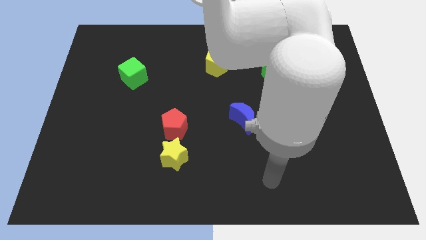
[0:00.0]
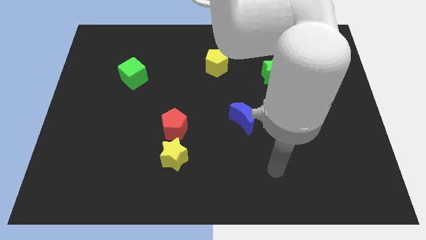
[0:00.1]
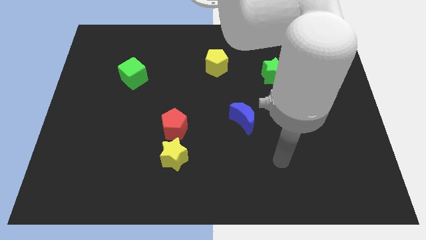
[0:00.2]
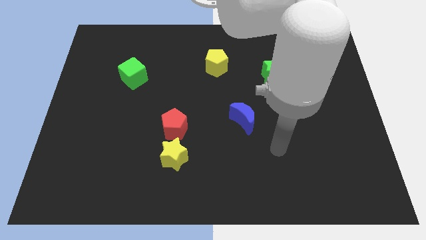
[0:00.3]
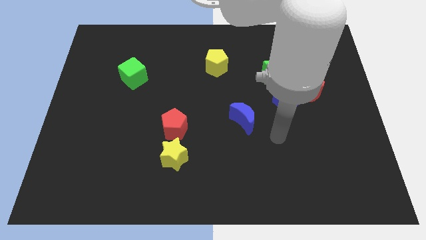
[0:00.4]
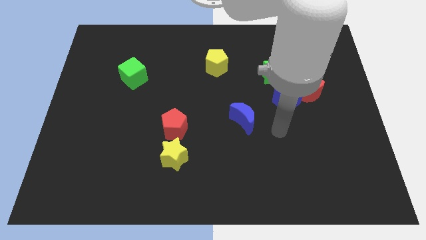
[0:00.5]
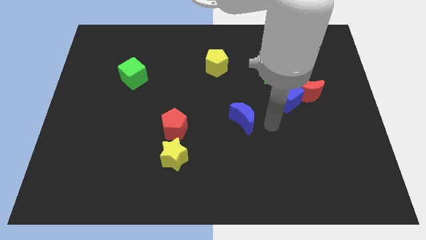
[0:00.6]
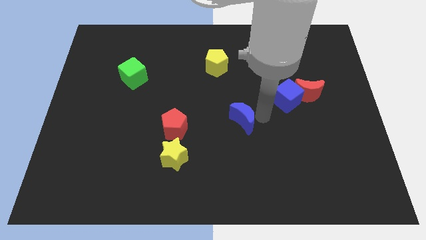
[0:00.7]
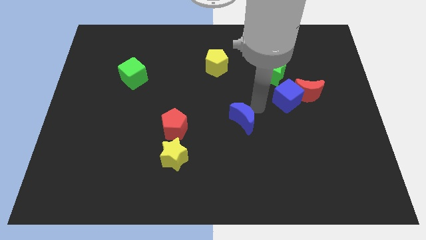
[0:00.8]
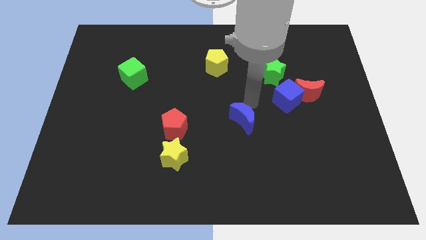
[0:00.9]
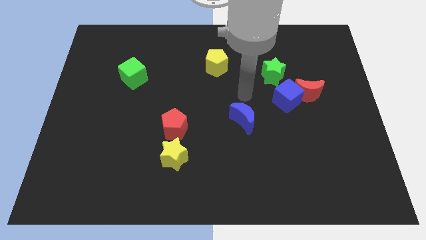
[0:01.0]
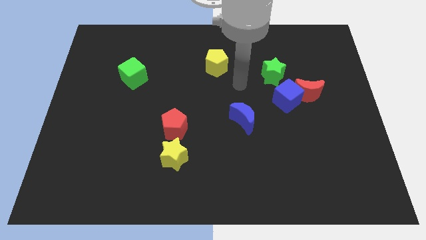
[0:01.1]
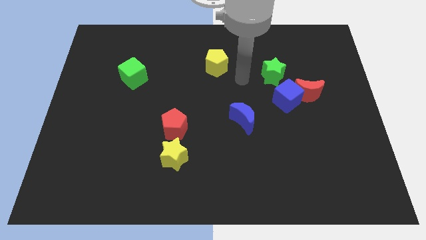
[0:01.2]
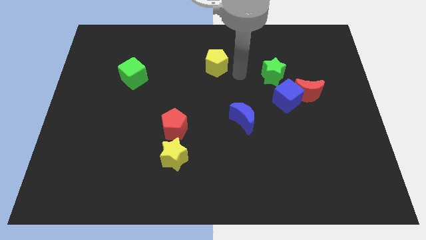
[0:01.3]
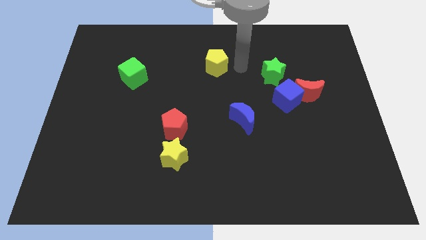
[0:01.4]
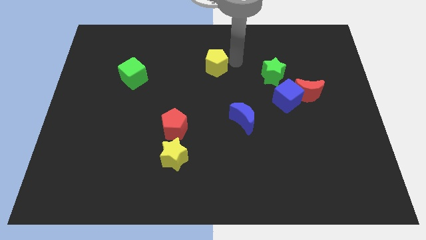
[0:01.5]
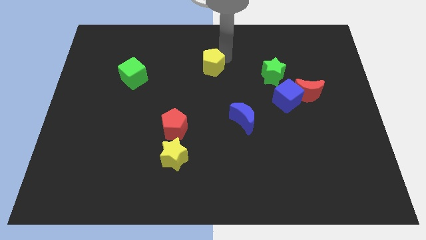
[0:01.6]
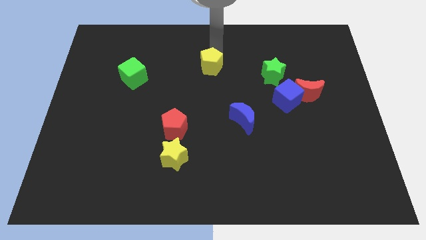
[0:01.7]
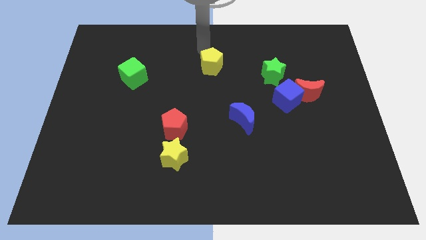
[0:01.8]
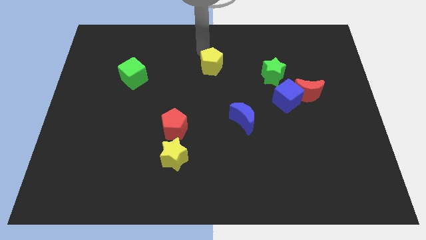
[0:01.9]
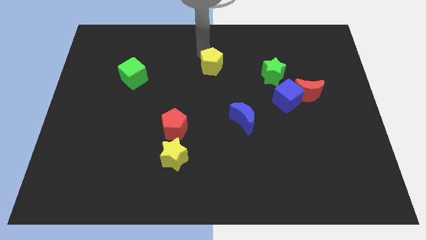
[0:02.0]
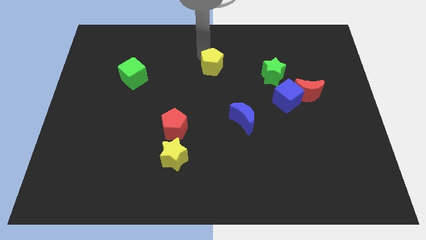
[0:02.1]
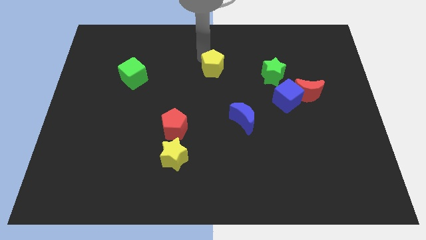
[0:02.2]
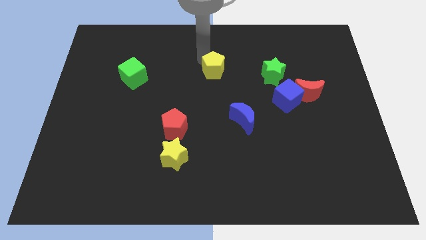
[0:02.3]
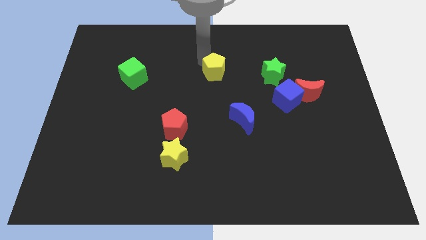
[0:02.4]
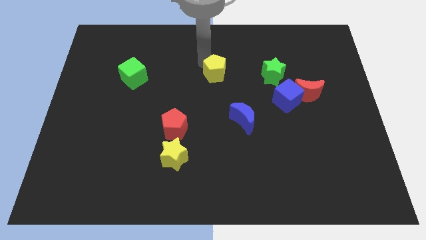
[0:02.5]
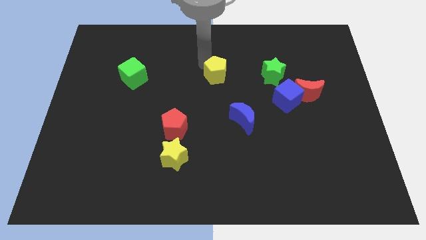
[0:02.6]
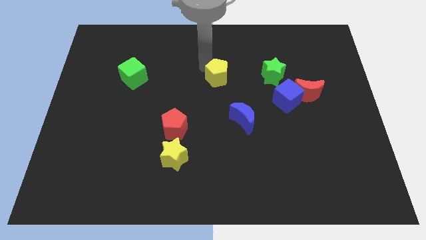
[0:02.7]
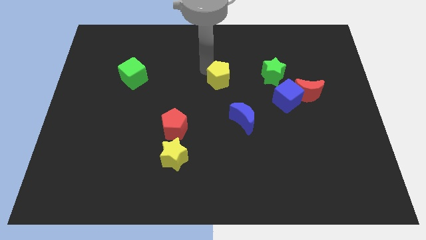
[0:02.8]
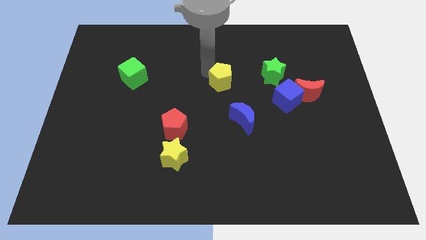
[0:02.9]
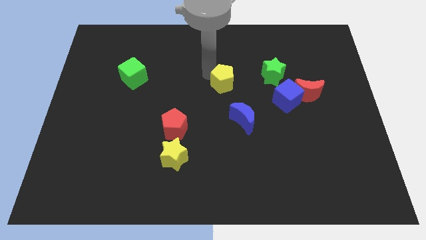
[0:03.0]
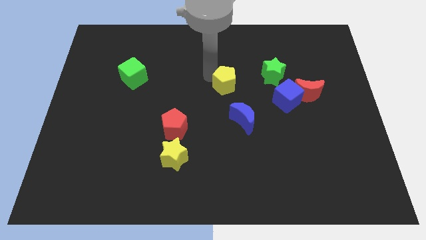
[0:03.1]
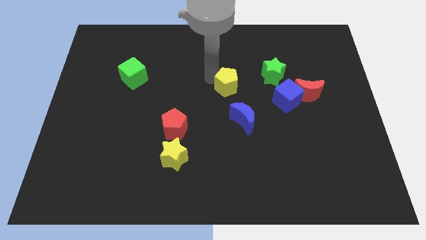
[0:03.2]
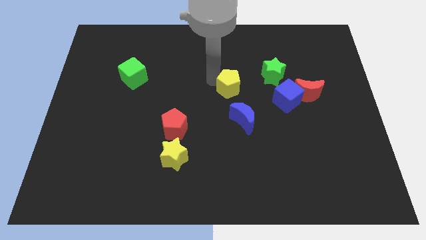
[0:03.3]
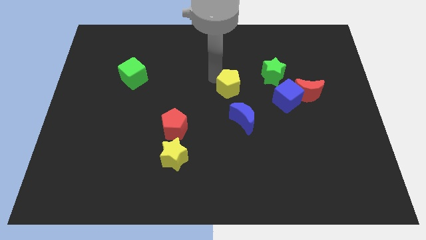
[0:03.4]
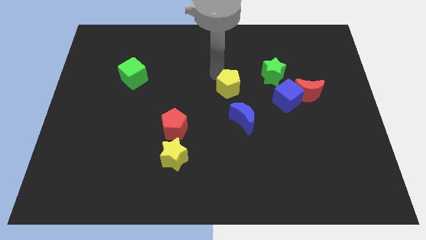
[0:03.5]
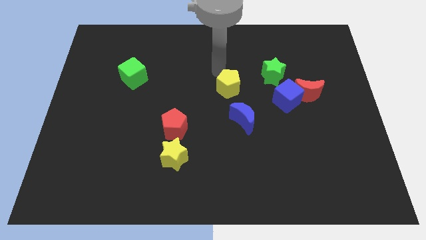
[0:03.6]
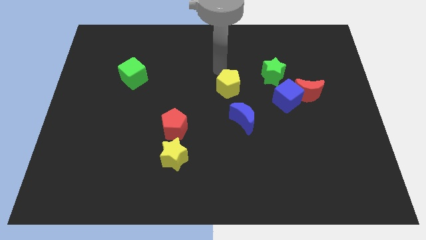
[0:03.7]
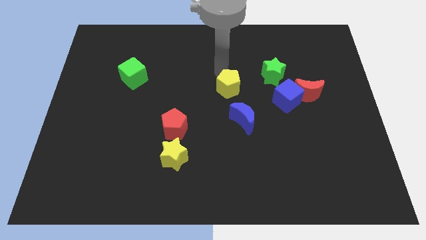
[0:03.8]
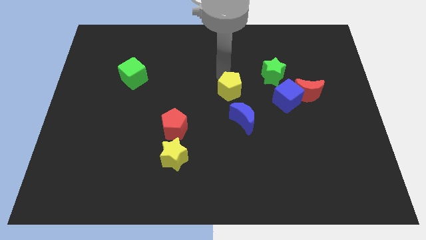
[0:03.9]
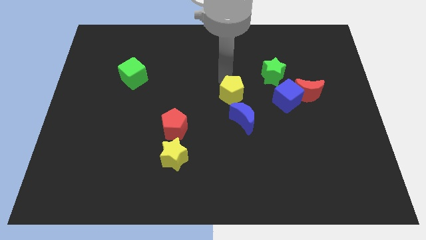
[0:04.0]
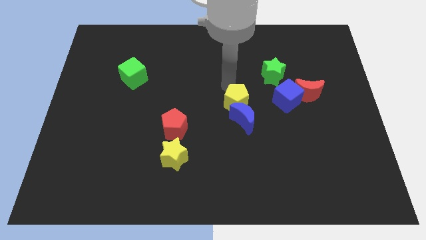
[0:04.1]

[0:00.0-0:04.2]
put the yellow pentagon close to the blue moon

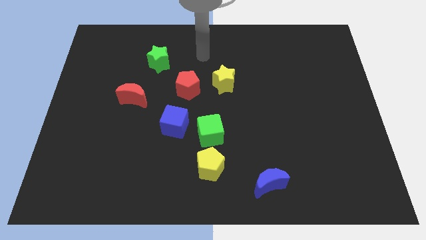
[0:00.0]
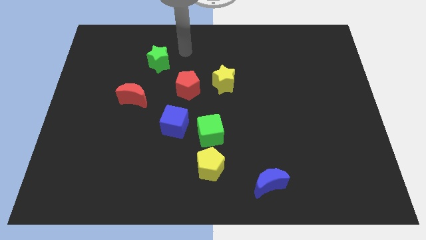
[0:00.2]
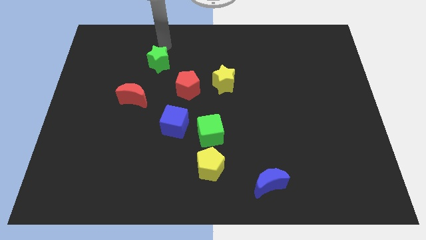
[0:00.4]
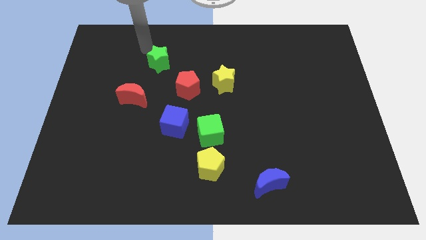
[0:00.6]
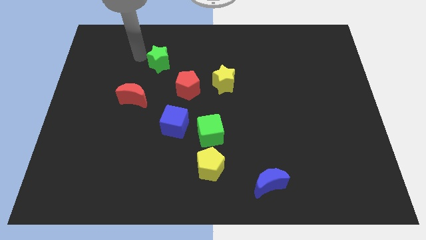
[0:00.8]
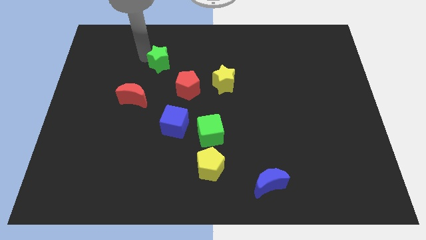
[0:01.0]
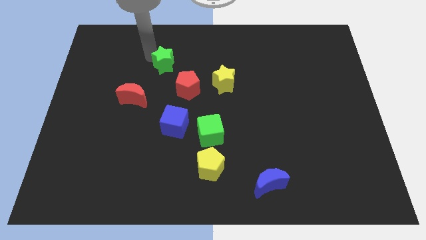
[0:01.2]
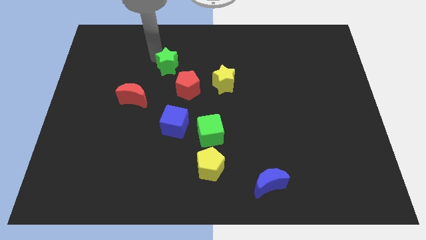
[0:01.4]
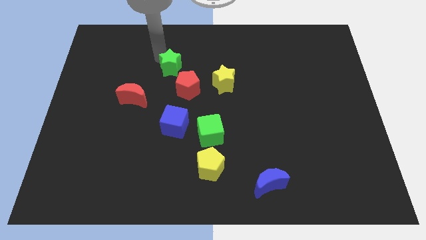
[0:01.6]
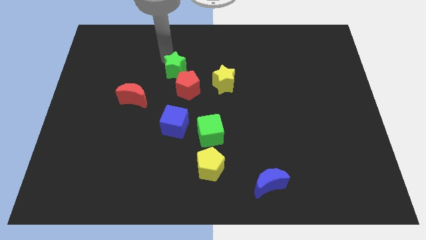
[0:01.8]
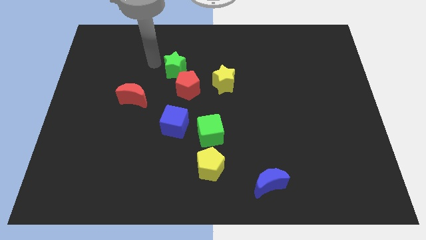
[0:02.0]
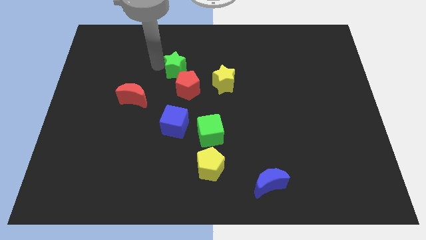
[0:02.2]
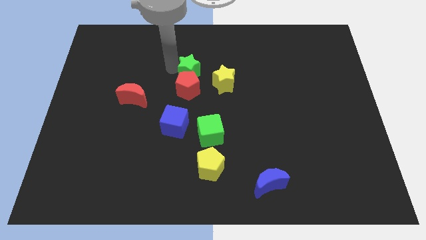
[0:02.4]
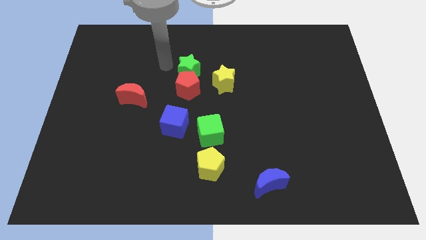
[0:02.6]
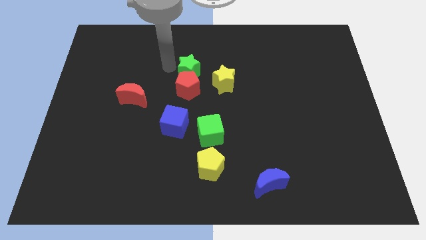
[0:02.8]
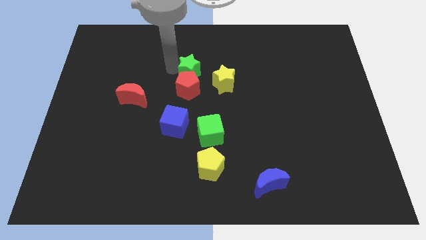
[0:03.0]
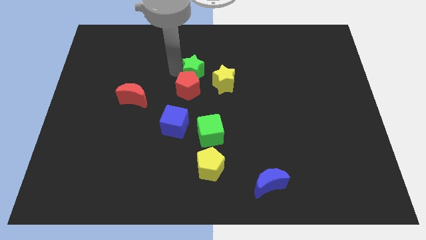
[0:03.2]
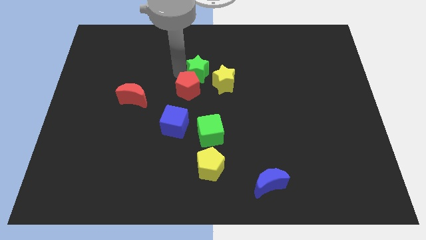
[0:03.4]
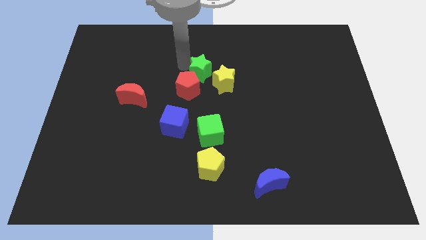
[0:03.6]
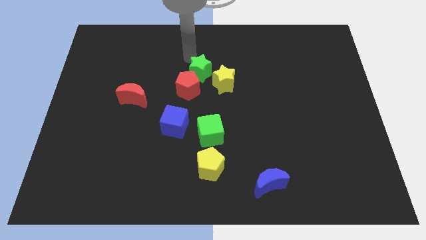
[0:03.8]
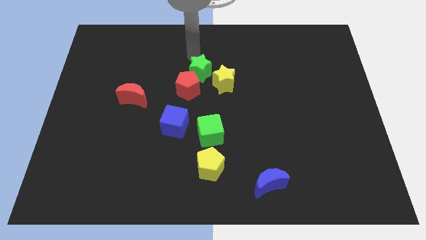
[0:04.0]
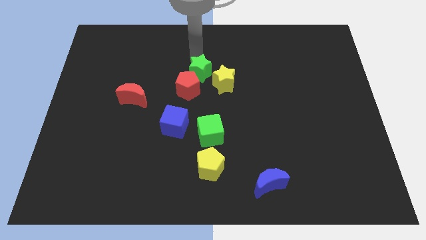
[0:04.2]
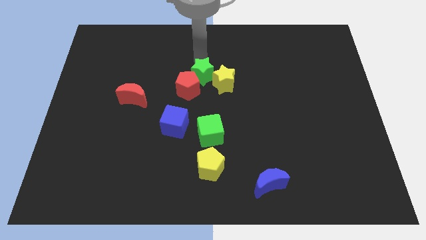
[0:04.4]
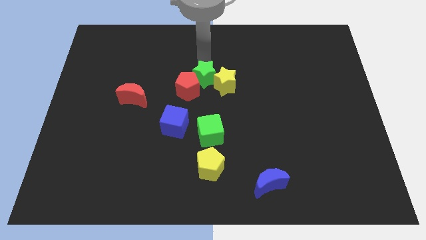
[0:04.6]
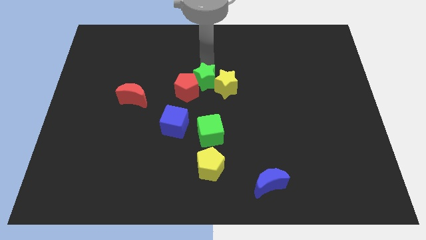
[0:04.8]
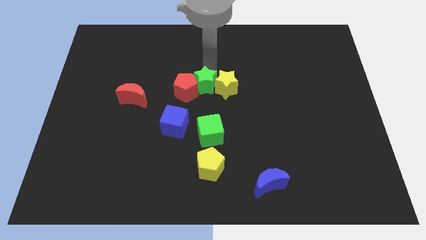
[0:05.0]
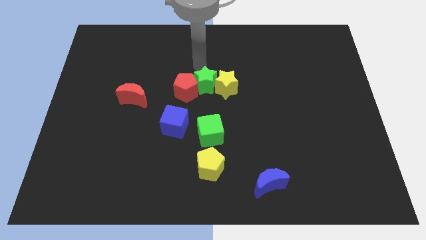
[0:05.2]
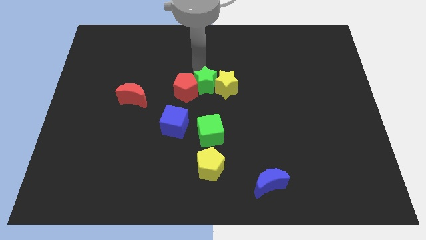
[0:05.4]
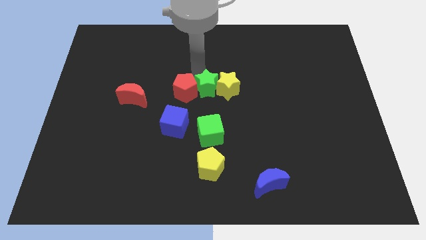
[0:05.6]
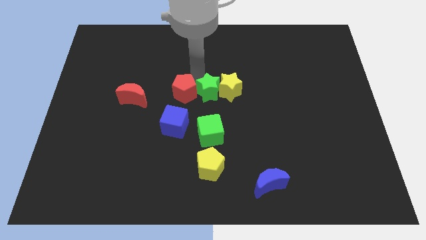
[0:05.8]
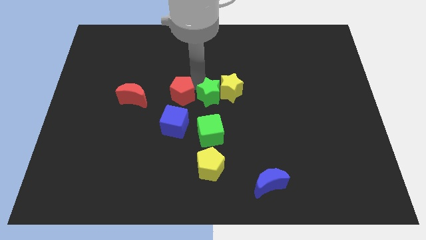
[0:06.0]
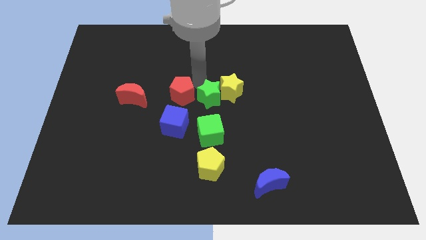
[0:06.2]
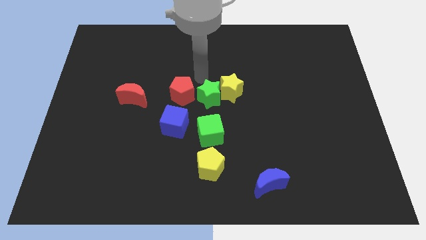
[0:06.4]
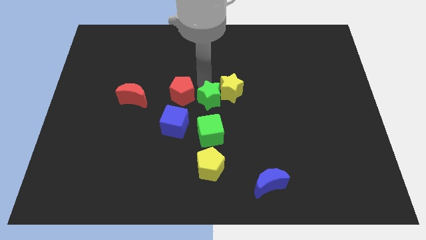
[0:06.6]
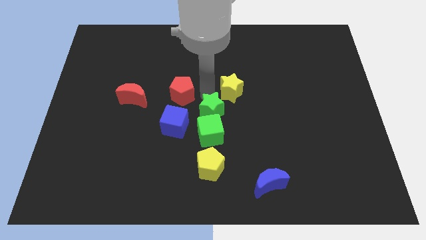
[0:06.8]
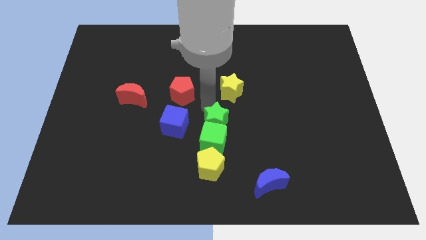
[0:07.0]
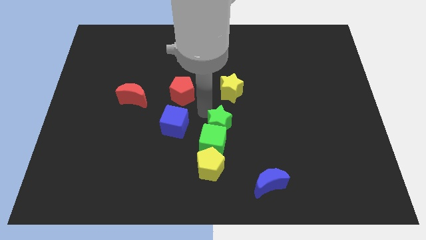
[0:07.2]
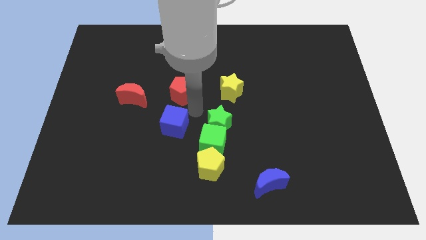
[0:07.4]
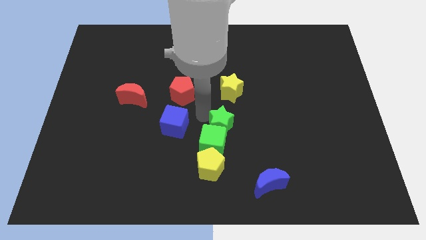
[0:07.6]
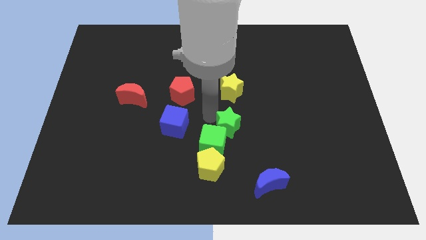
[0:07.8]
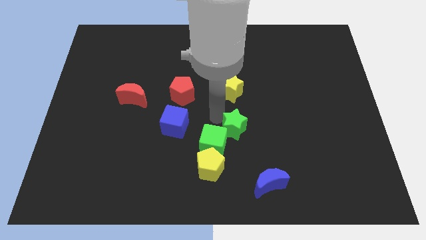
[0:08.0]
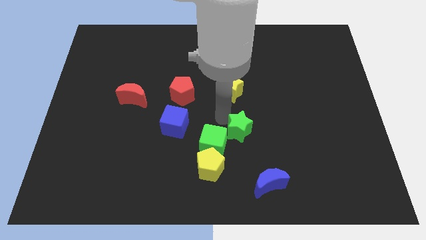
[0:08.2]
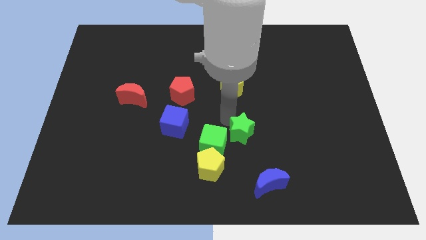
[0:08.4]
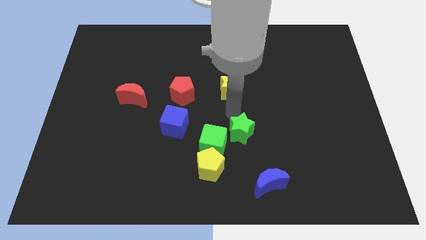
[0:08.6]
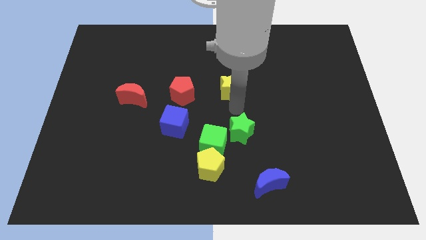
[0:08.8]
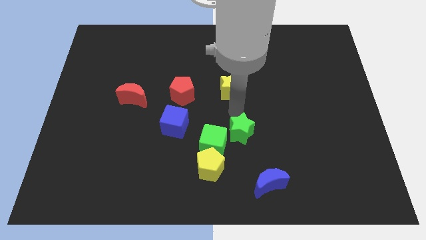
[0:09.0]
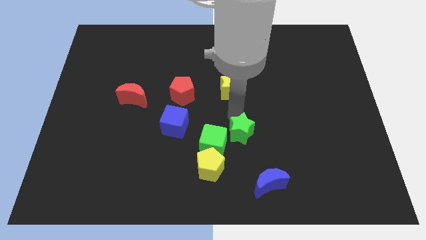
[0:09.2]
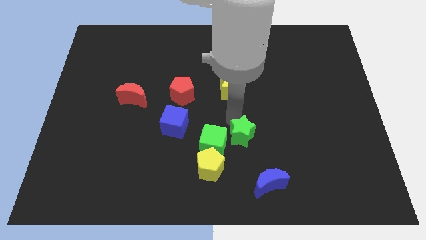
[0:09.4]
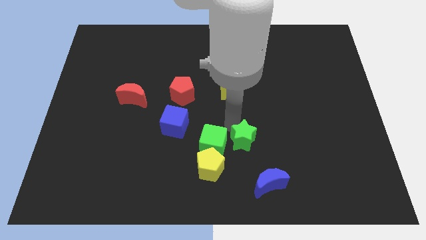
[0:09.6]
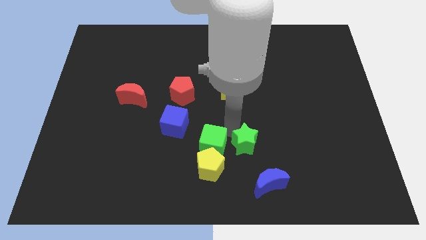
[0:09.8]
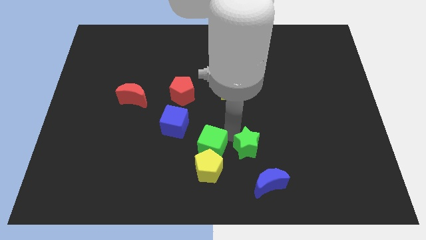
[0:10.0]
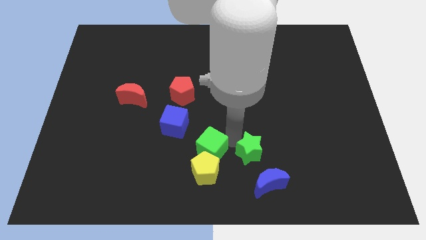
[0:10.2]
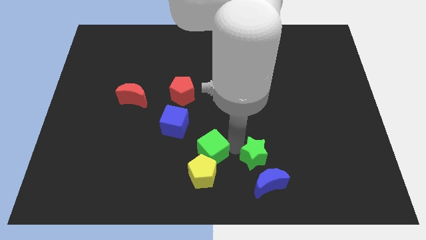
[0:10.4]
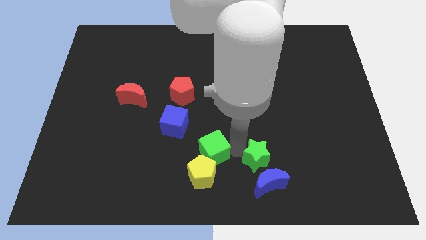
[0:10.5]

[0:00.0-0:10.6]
push the green star close to the blue moon
